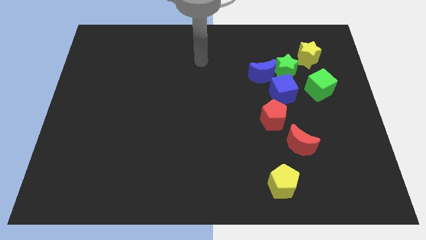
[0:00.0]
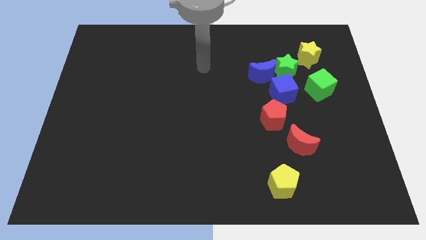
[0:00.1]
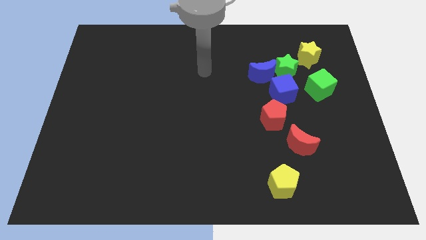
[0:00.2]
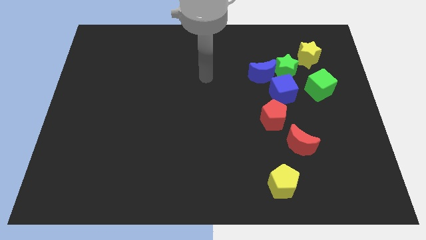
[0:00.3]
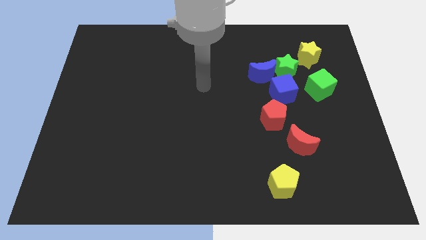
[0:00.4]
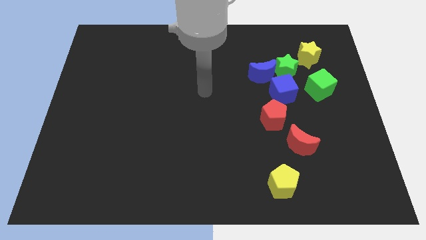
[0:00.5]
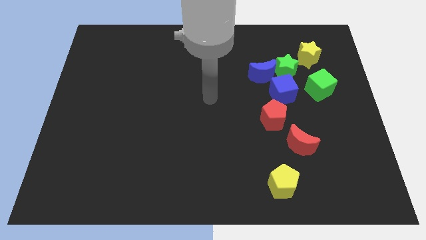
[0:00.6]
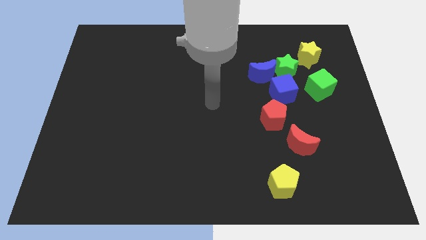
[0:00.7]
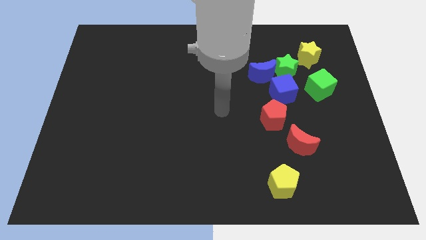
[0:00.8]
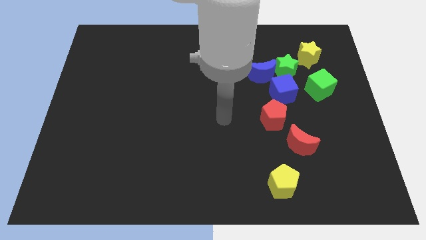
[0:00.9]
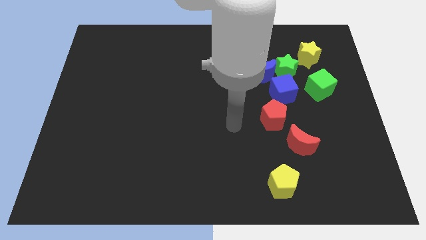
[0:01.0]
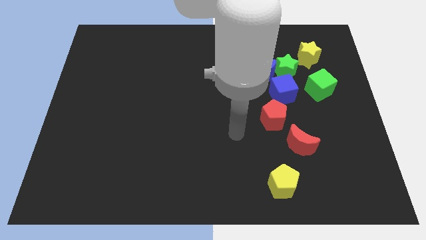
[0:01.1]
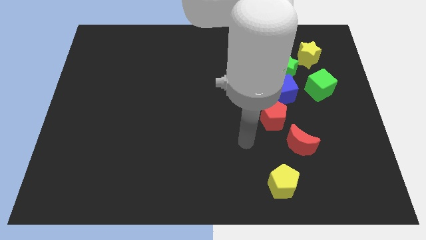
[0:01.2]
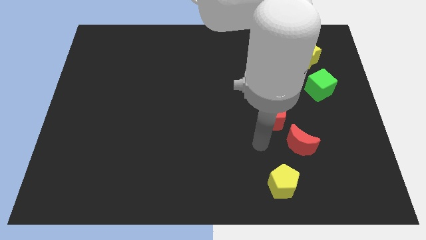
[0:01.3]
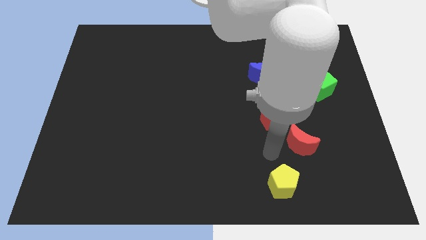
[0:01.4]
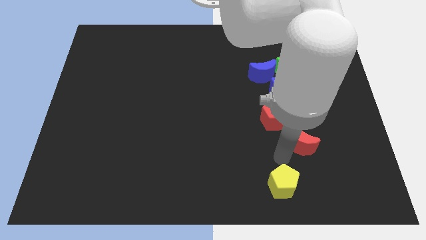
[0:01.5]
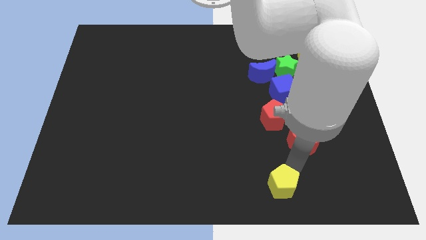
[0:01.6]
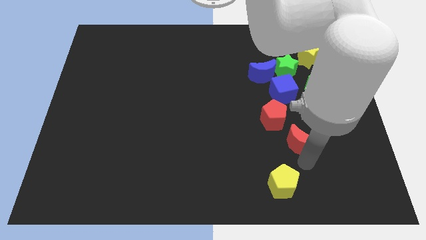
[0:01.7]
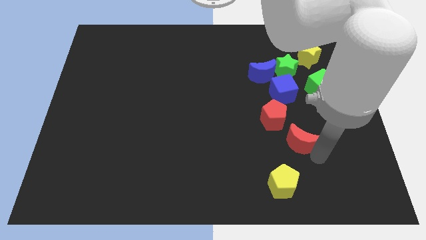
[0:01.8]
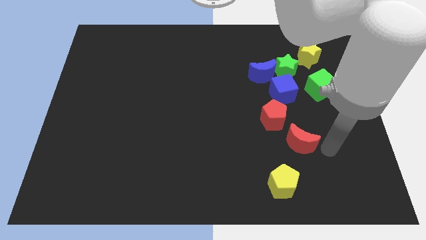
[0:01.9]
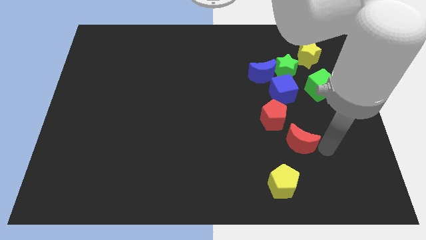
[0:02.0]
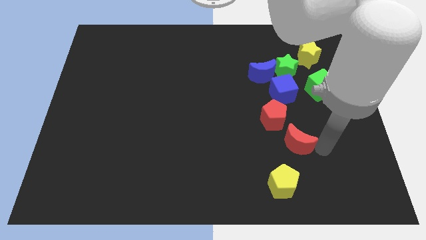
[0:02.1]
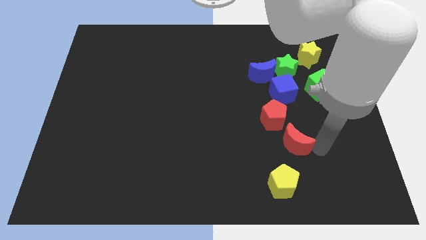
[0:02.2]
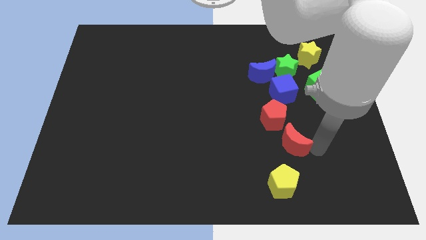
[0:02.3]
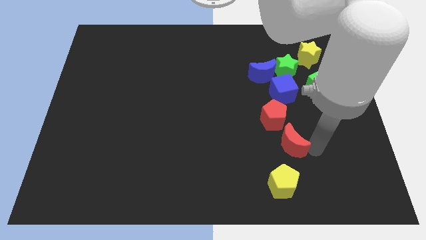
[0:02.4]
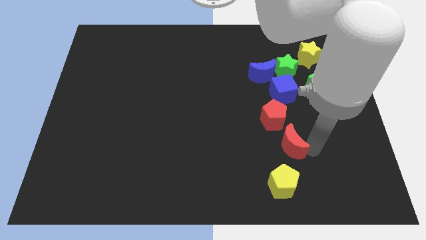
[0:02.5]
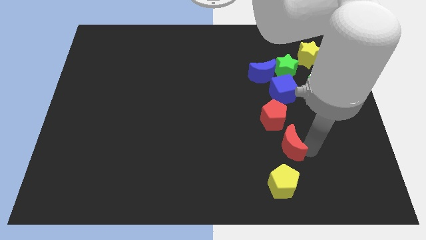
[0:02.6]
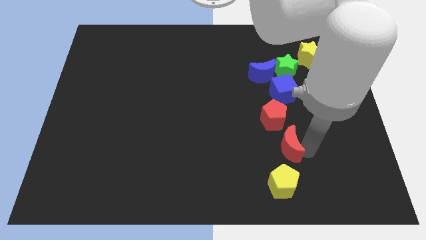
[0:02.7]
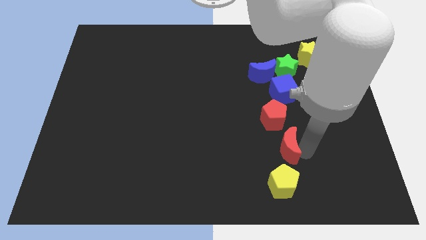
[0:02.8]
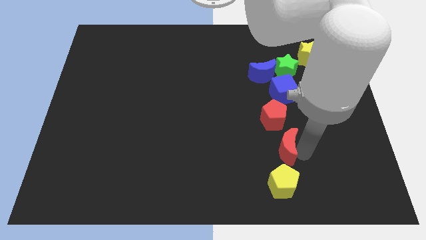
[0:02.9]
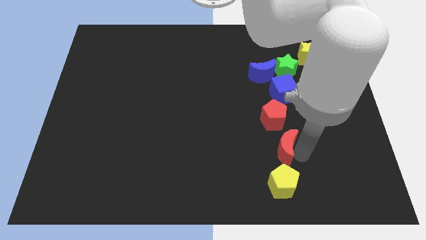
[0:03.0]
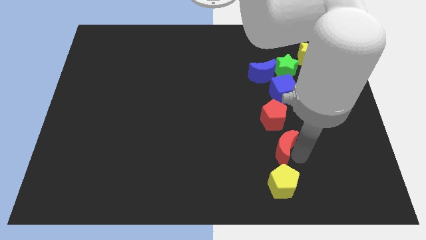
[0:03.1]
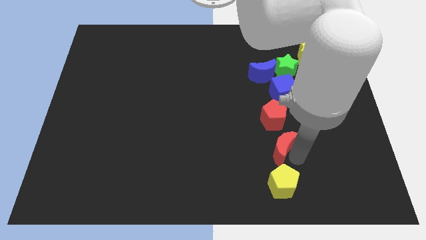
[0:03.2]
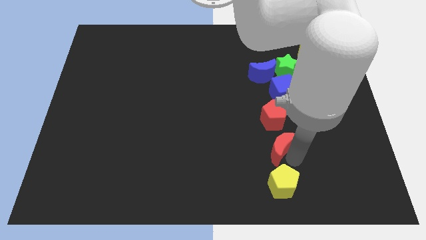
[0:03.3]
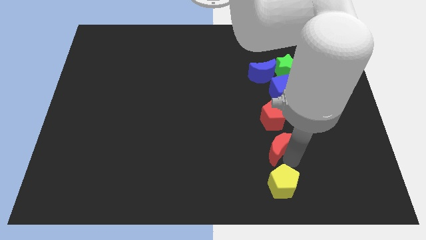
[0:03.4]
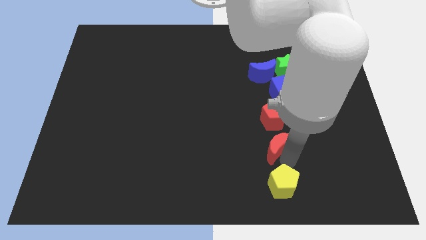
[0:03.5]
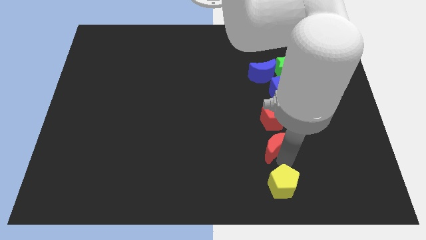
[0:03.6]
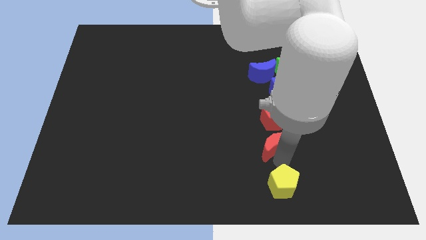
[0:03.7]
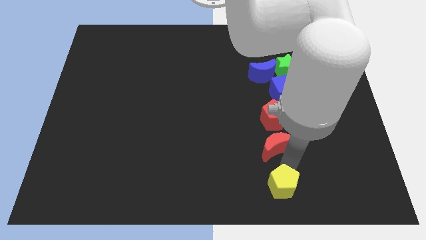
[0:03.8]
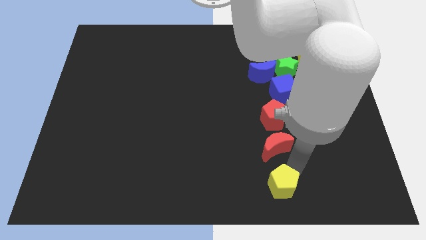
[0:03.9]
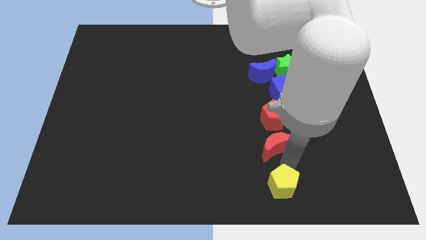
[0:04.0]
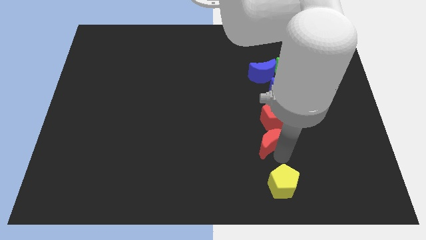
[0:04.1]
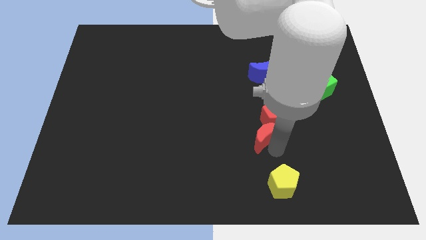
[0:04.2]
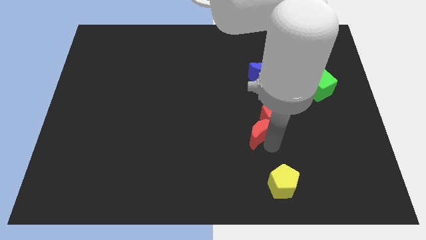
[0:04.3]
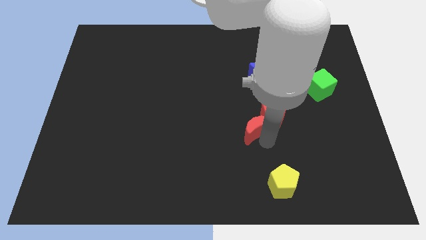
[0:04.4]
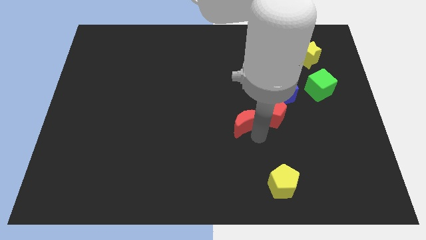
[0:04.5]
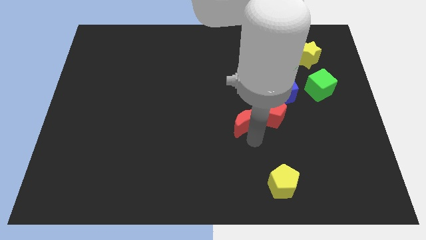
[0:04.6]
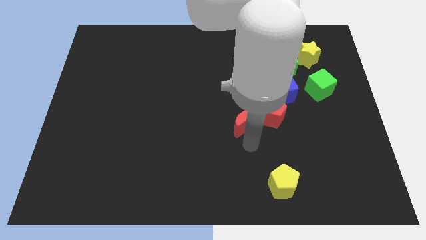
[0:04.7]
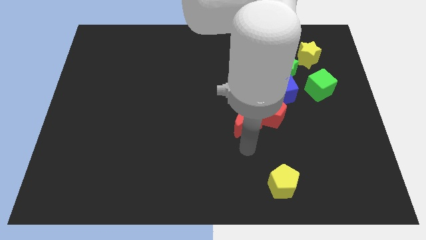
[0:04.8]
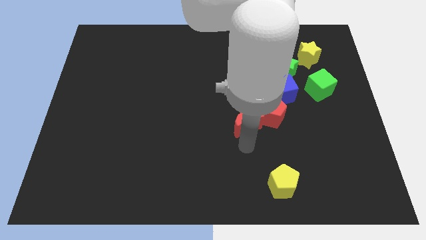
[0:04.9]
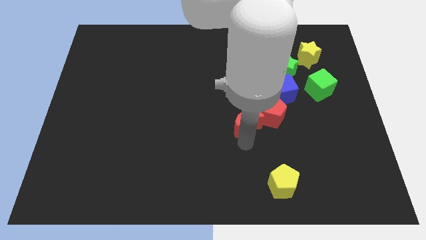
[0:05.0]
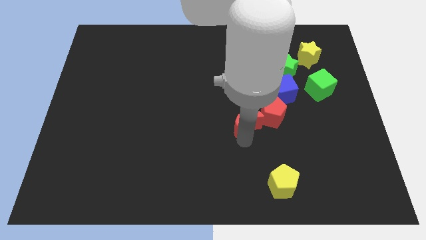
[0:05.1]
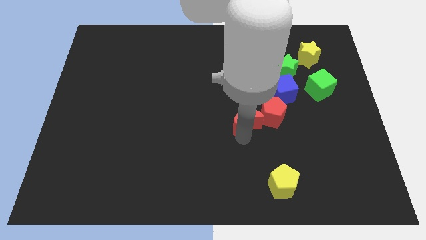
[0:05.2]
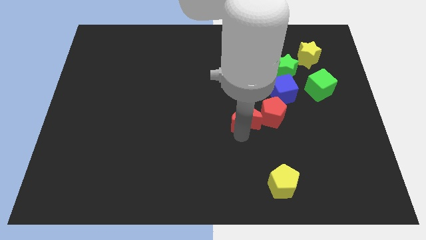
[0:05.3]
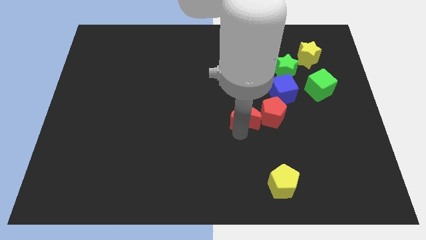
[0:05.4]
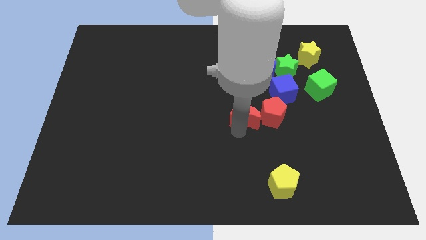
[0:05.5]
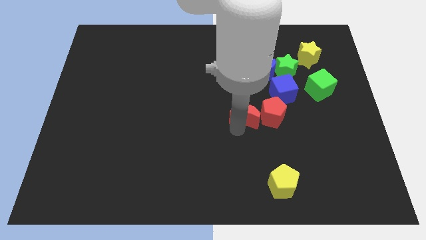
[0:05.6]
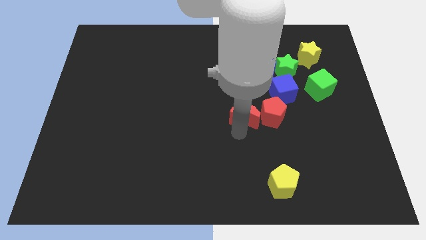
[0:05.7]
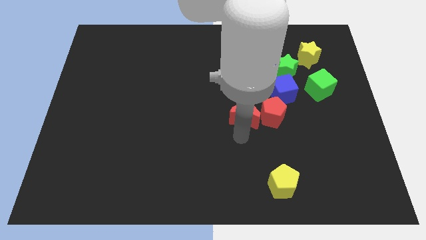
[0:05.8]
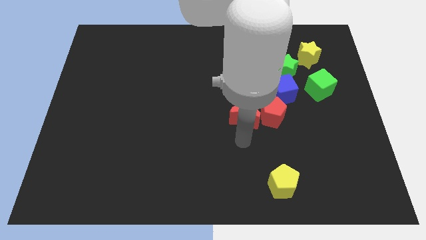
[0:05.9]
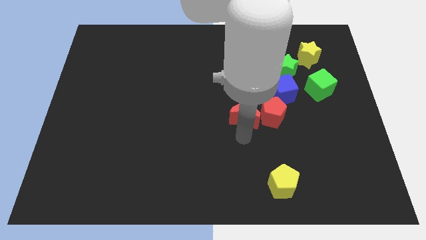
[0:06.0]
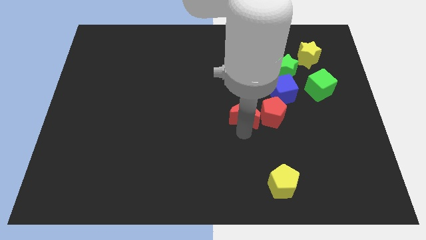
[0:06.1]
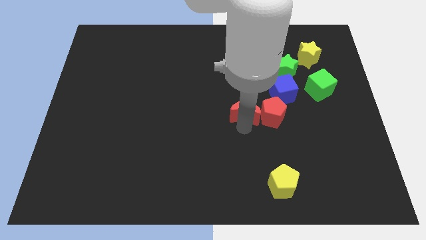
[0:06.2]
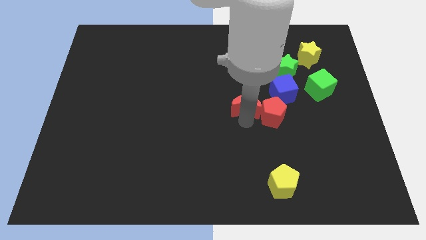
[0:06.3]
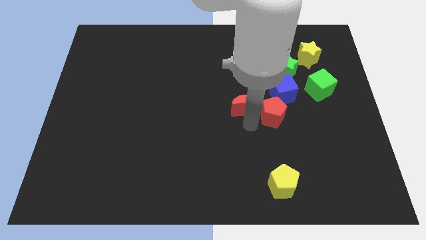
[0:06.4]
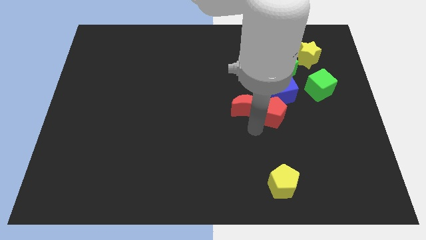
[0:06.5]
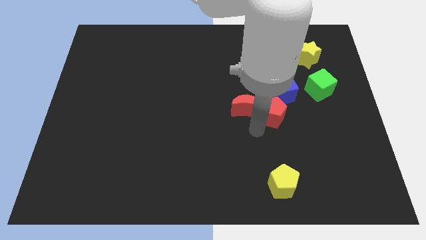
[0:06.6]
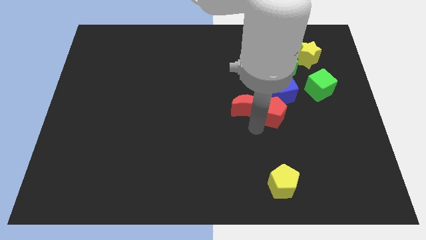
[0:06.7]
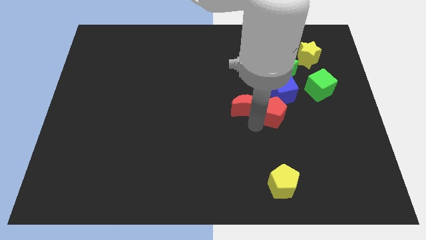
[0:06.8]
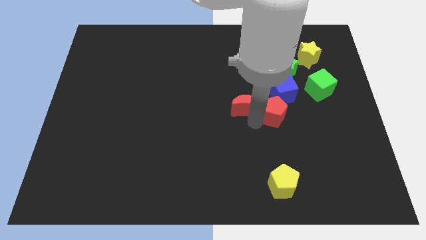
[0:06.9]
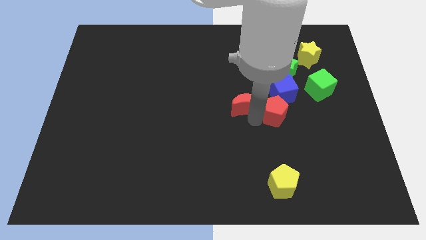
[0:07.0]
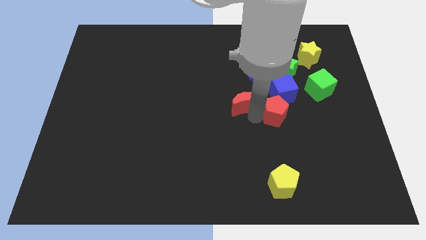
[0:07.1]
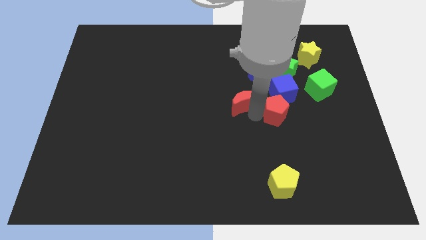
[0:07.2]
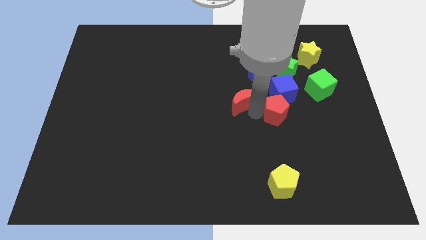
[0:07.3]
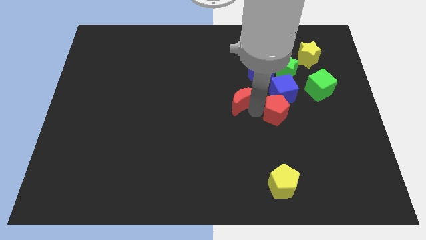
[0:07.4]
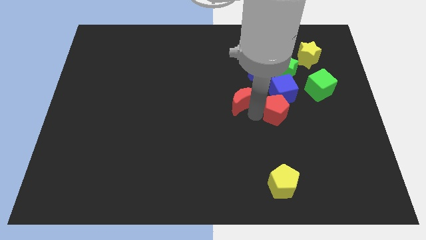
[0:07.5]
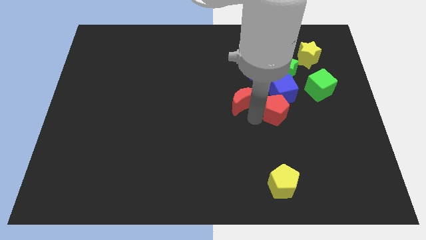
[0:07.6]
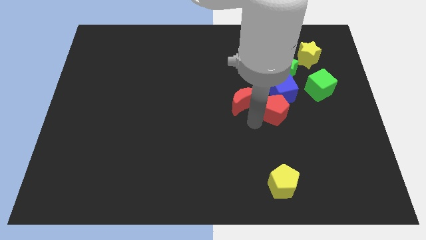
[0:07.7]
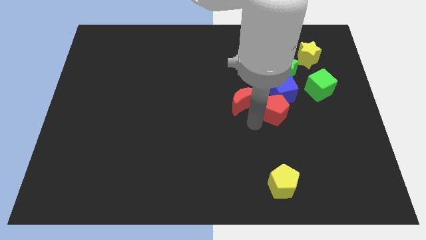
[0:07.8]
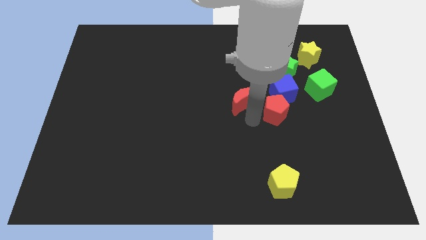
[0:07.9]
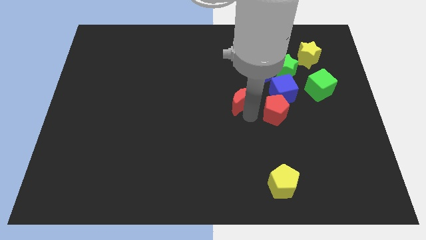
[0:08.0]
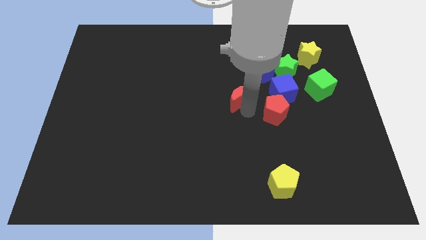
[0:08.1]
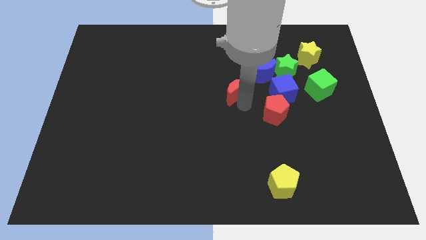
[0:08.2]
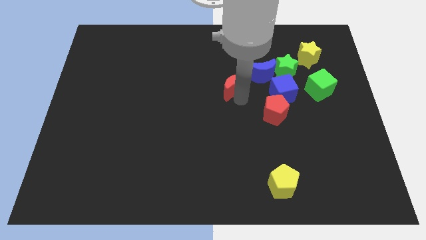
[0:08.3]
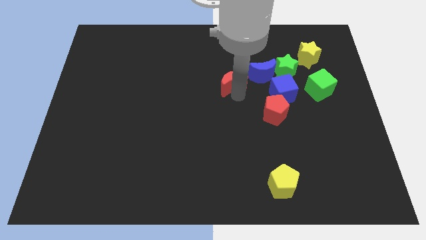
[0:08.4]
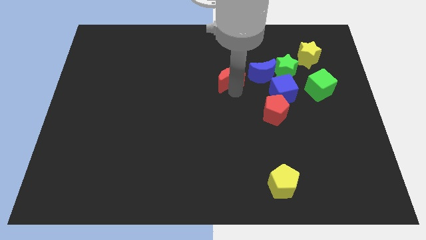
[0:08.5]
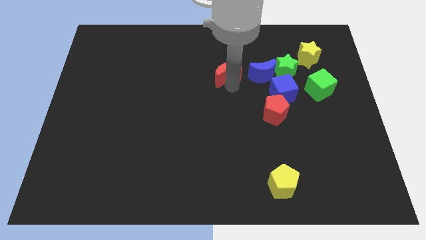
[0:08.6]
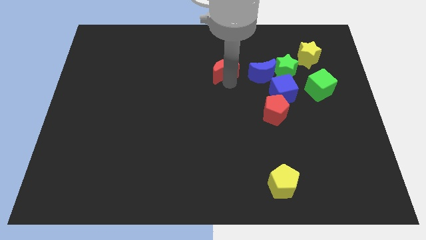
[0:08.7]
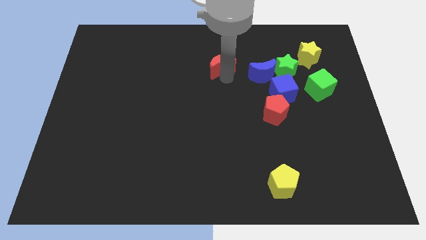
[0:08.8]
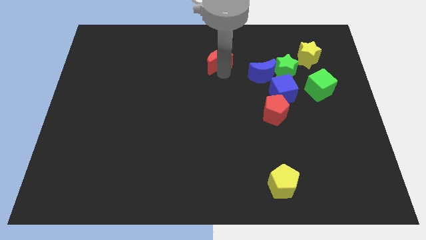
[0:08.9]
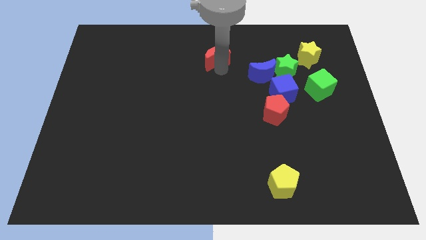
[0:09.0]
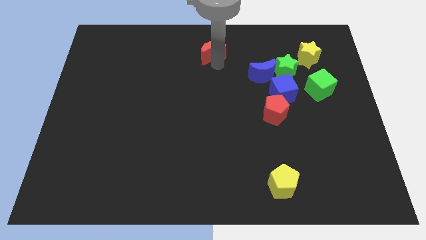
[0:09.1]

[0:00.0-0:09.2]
slide the red moon to the top
